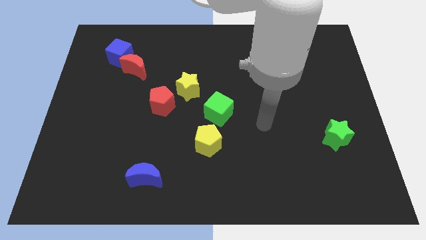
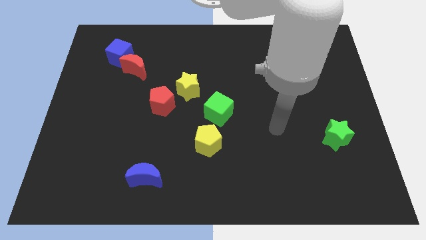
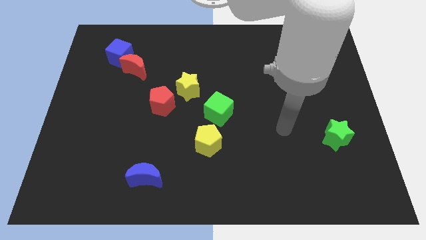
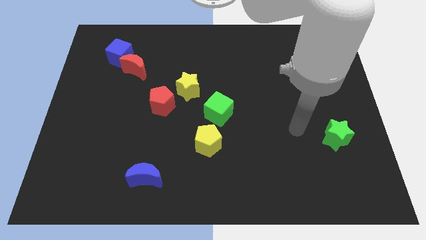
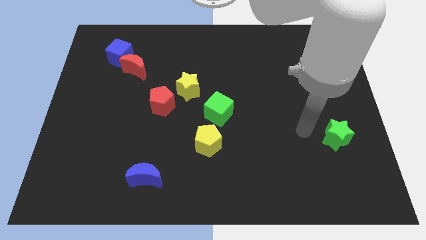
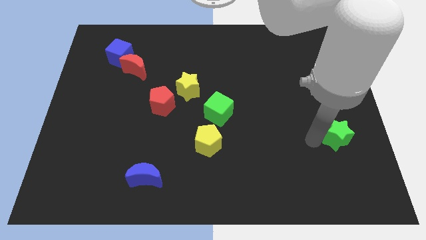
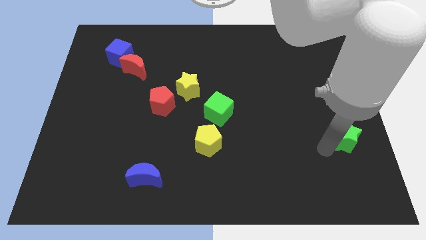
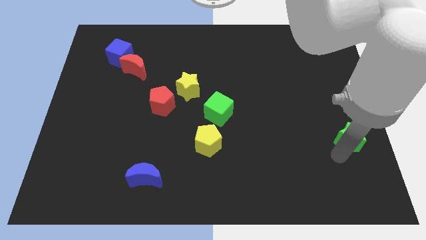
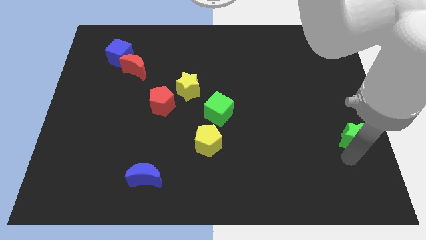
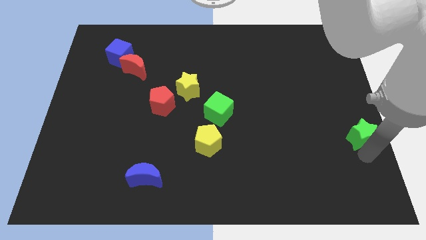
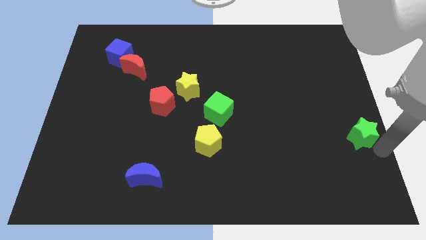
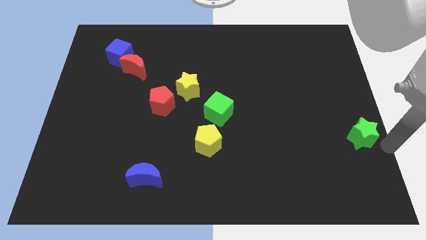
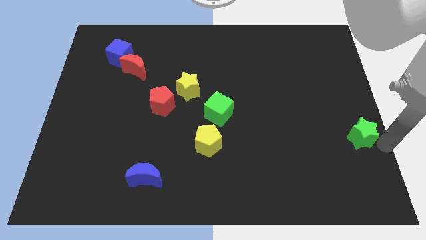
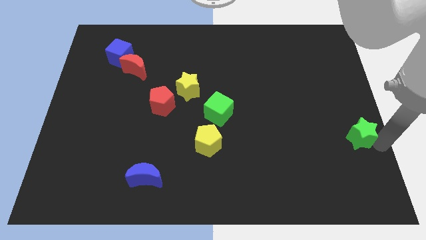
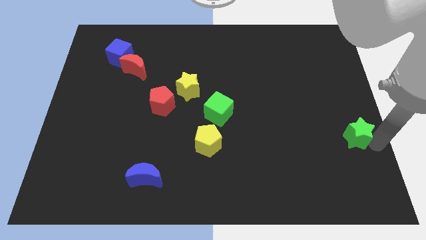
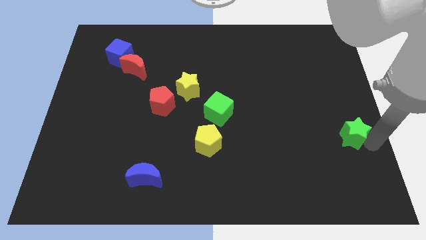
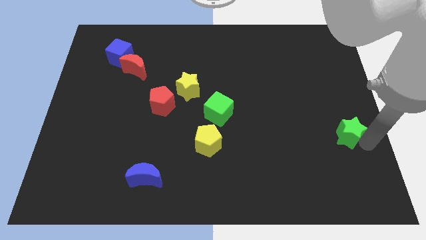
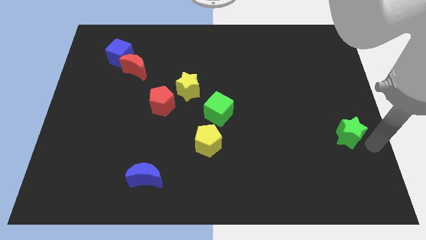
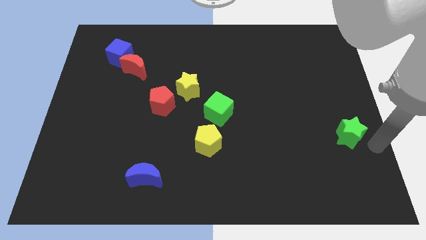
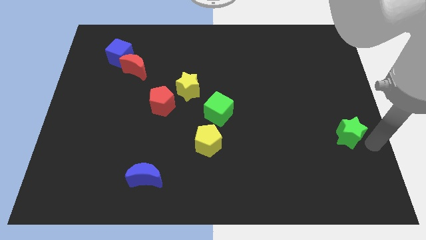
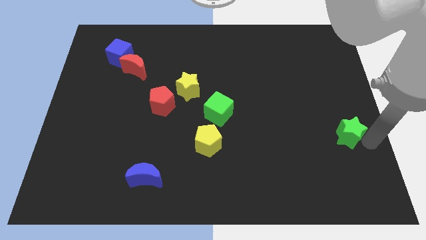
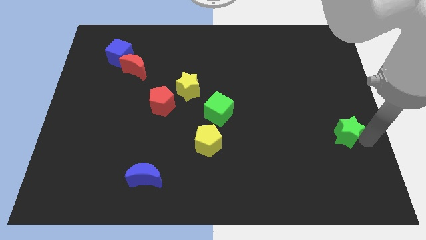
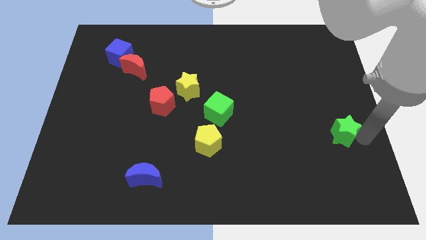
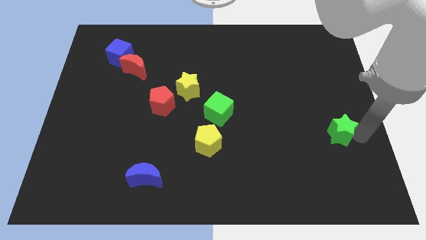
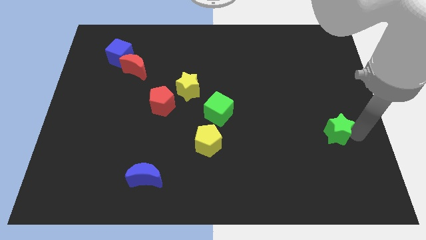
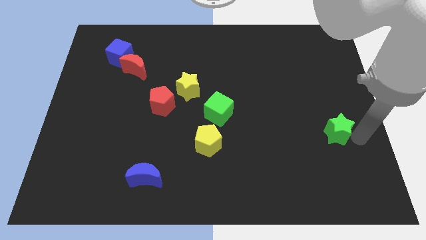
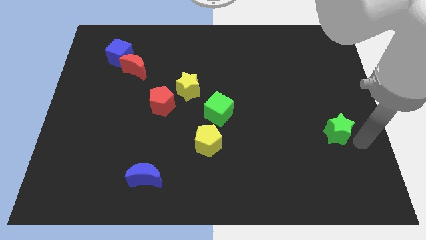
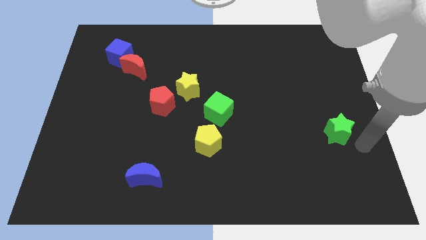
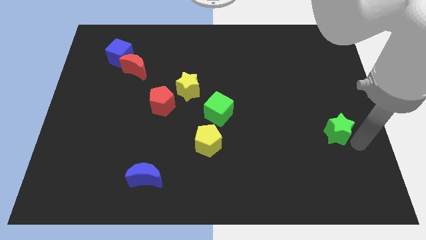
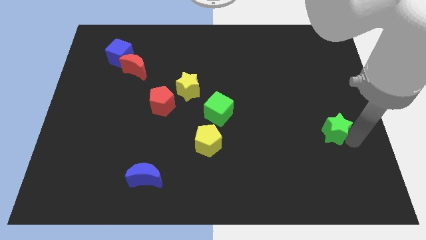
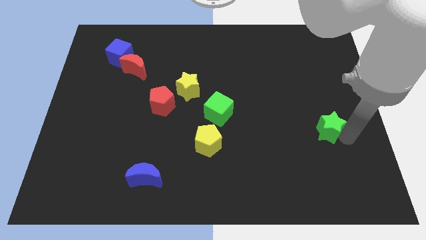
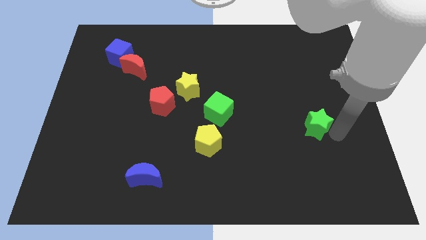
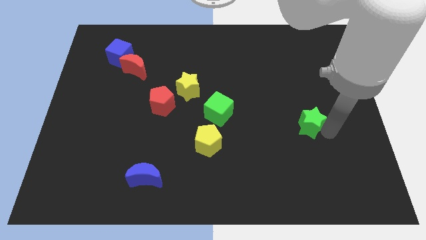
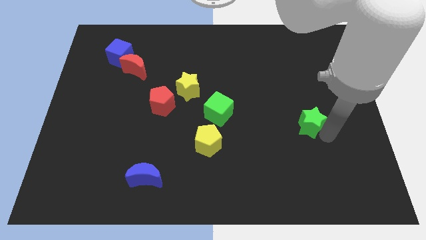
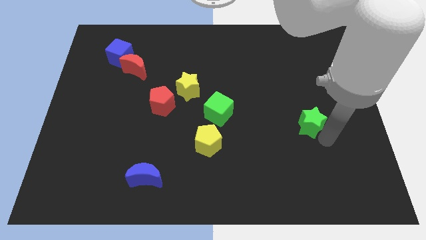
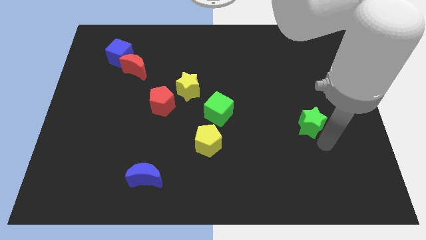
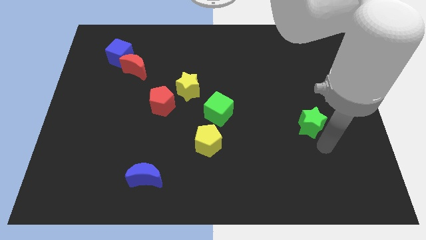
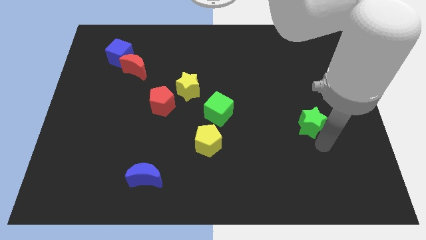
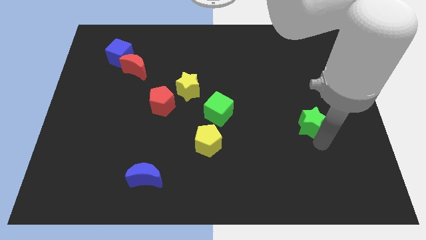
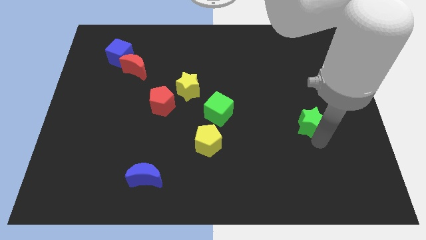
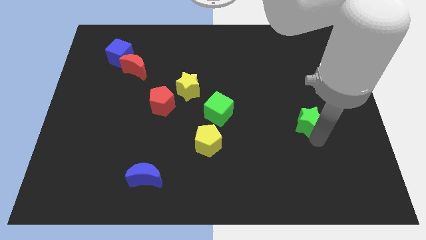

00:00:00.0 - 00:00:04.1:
push the green star upwards and to the left diagonally somewhat

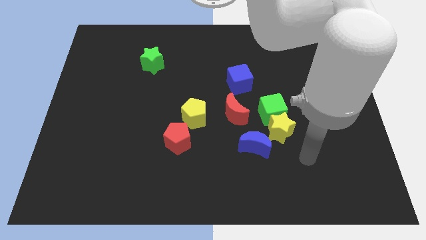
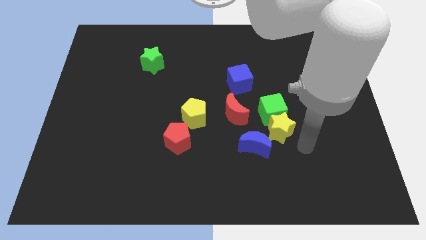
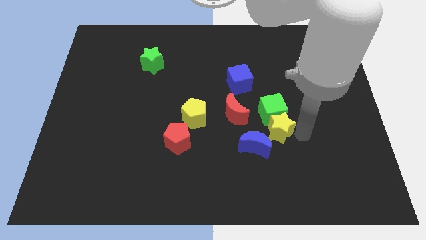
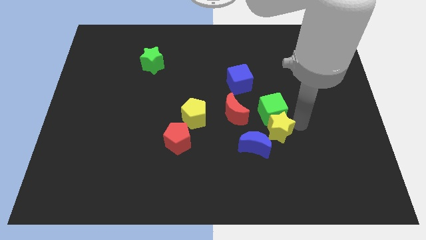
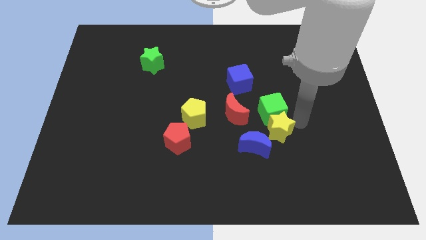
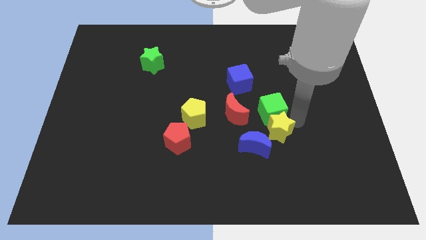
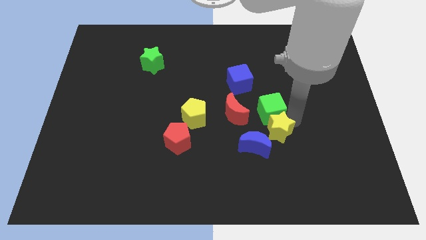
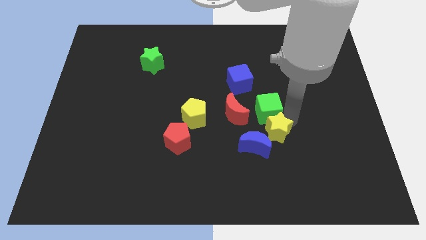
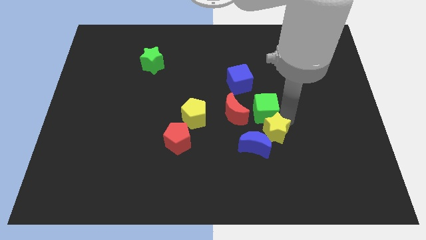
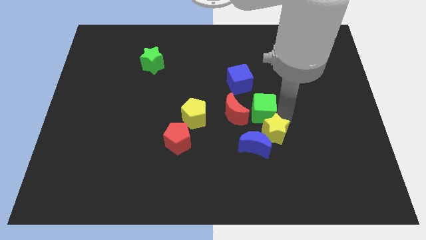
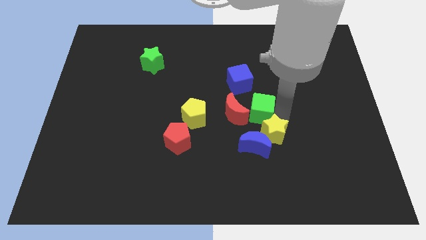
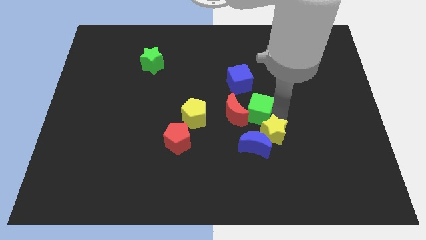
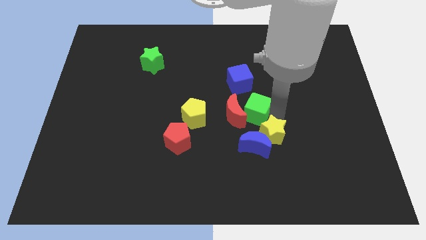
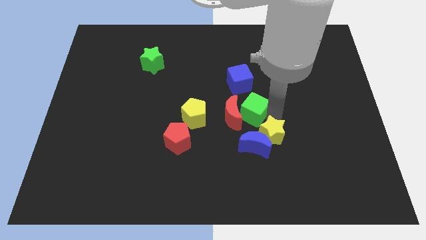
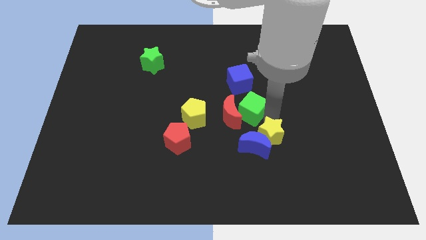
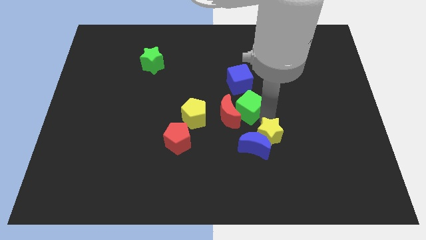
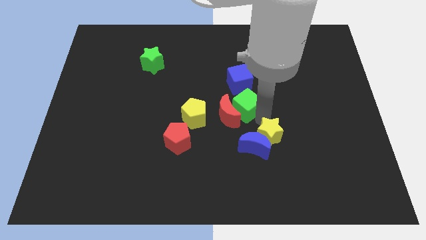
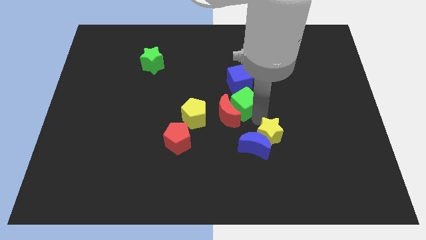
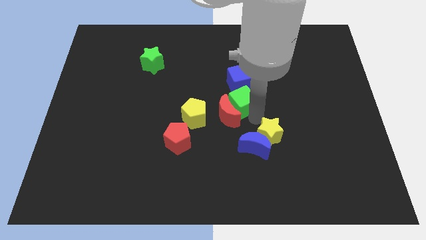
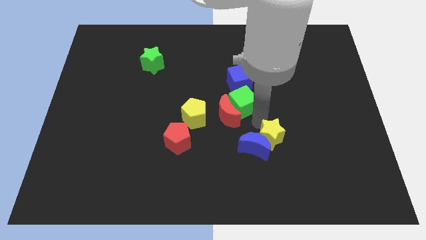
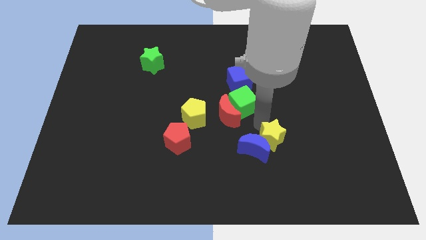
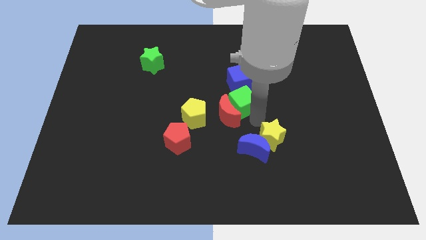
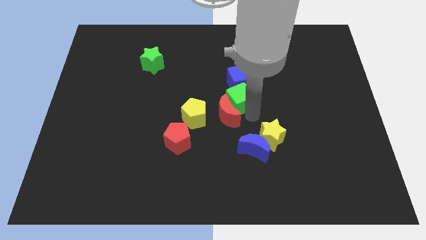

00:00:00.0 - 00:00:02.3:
slightly push the green cube up and then left

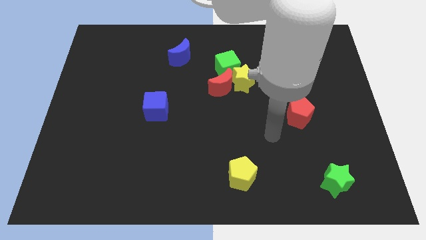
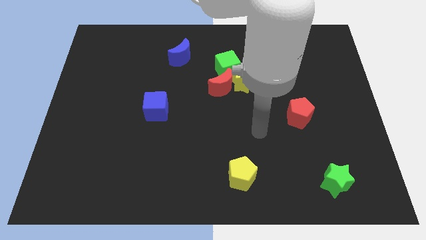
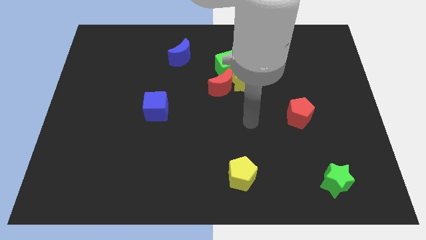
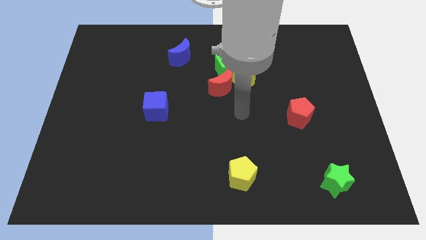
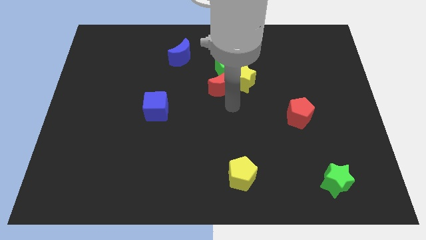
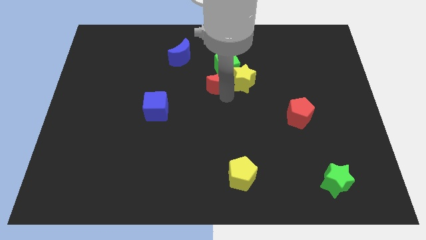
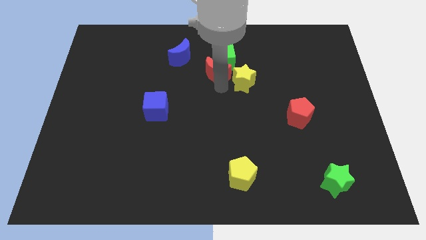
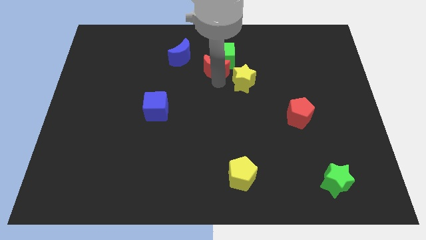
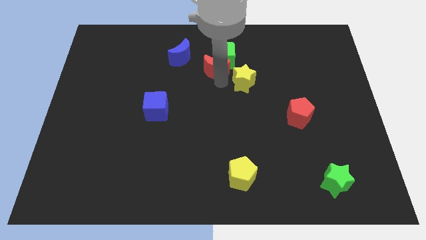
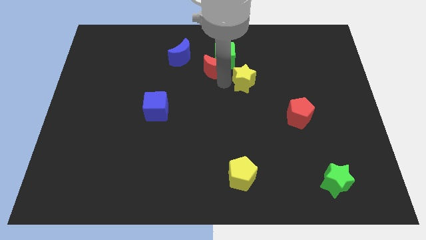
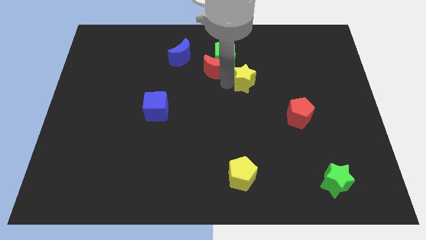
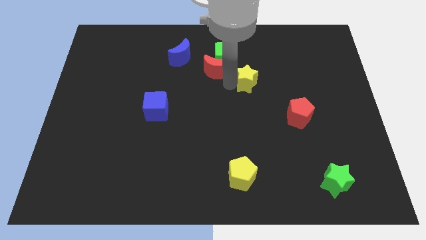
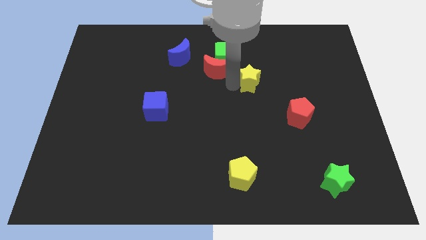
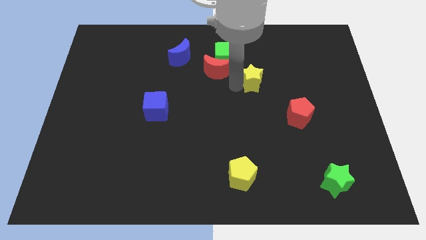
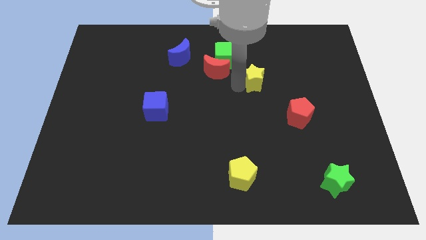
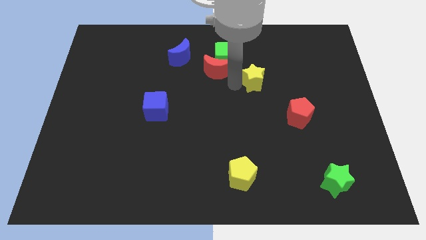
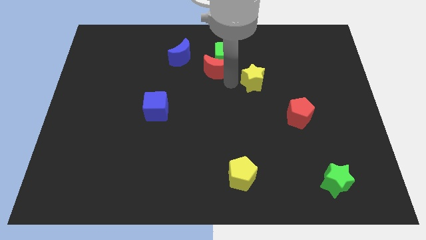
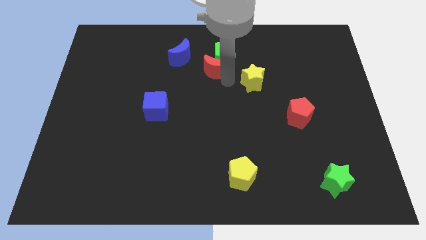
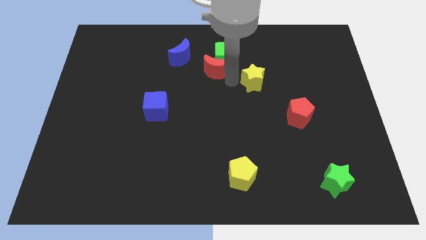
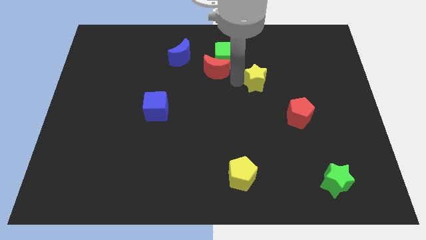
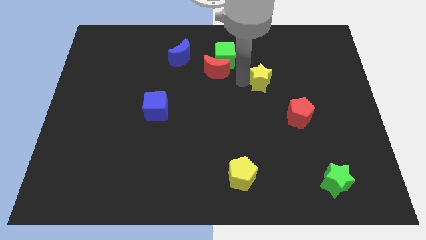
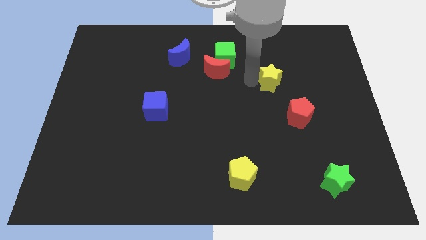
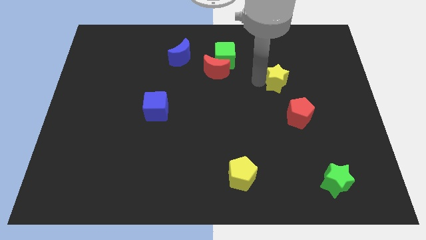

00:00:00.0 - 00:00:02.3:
move the yellow star a bit to the right
